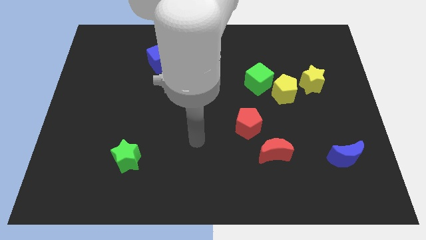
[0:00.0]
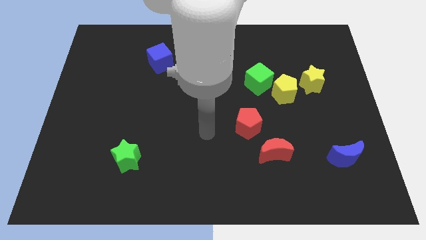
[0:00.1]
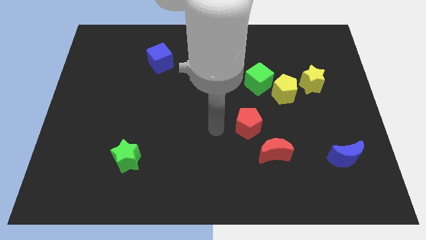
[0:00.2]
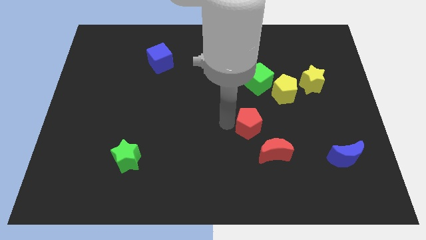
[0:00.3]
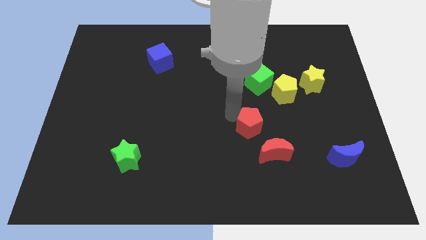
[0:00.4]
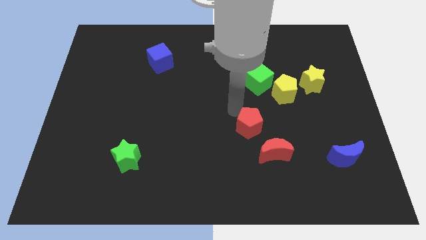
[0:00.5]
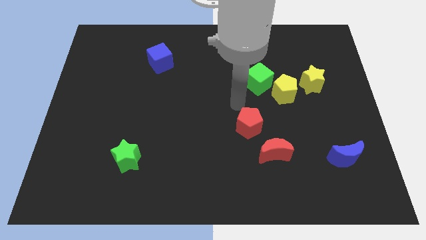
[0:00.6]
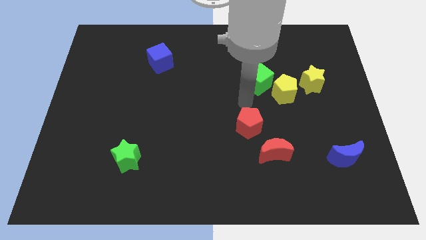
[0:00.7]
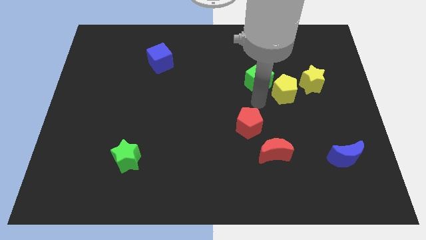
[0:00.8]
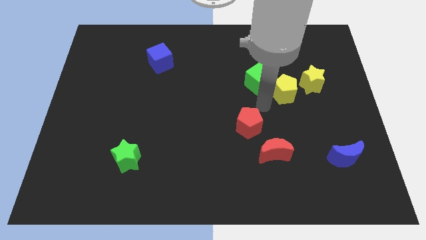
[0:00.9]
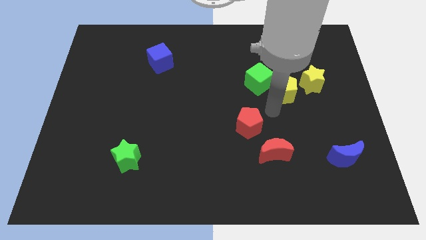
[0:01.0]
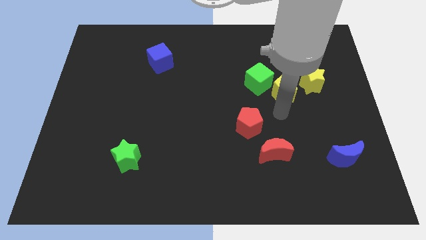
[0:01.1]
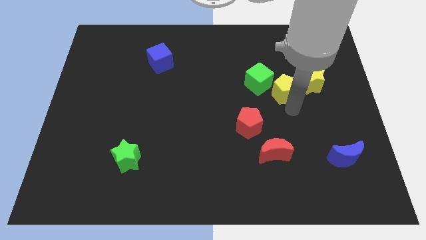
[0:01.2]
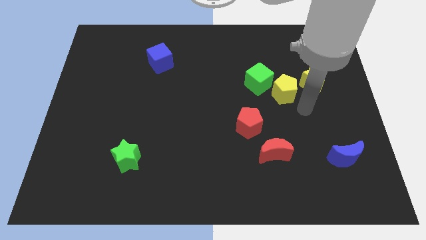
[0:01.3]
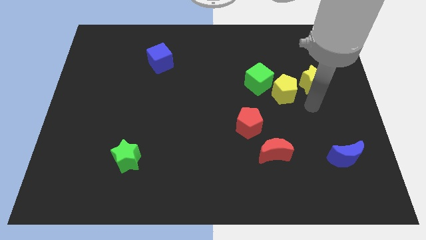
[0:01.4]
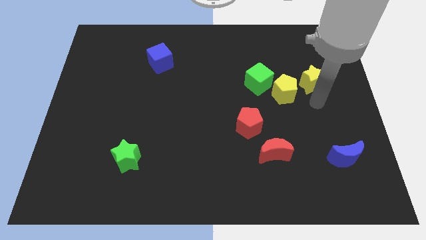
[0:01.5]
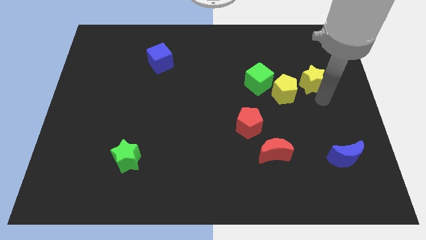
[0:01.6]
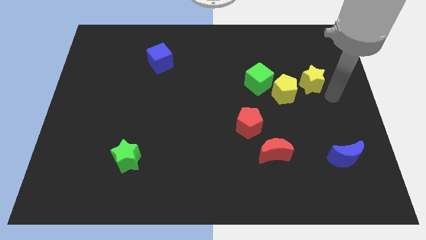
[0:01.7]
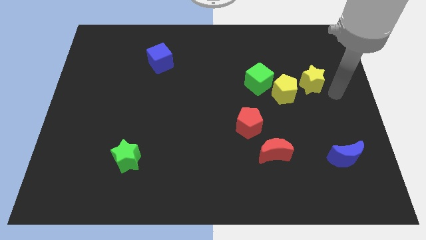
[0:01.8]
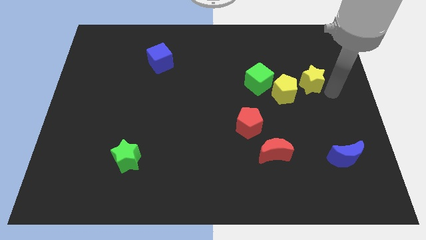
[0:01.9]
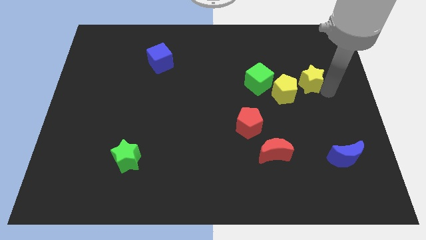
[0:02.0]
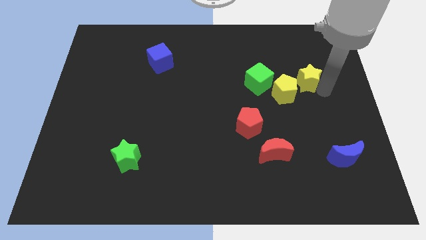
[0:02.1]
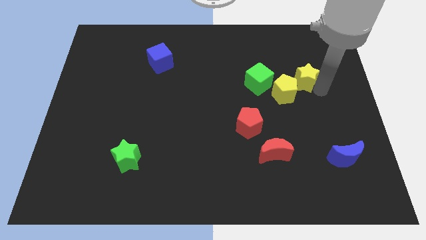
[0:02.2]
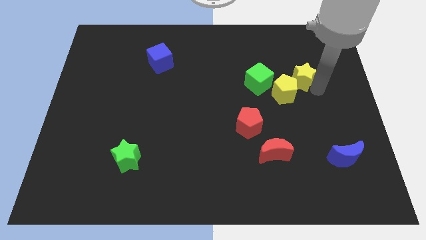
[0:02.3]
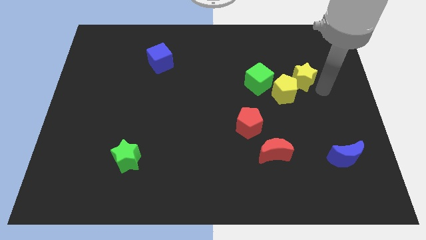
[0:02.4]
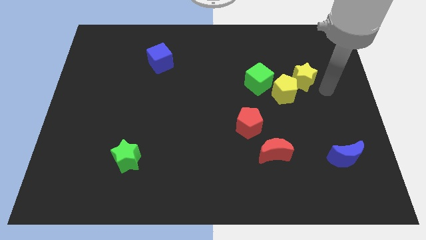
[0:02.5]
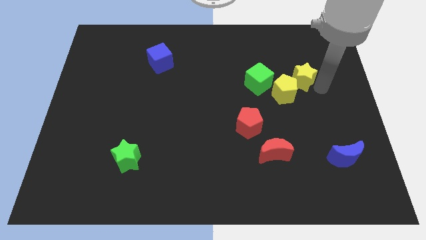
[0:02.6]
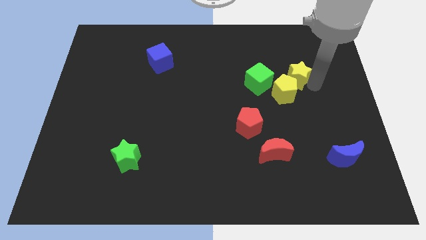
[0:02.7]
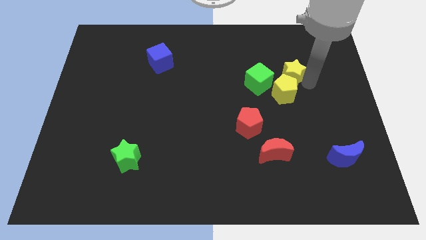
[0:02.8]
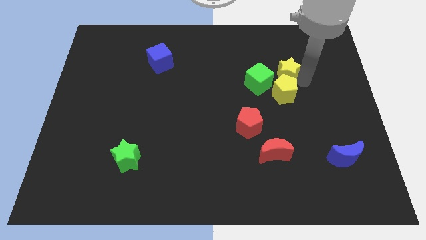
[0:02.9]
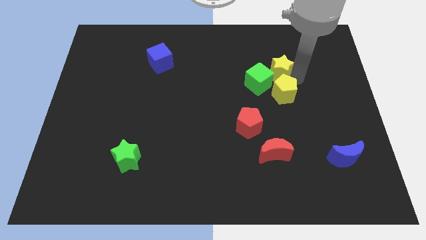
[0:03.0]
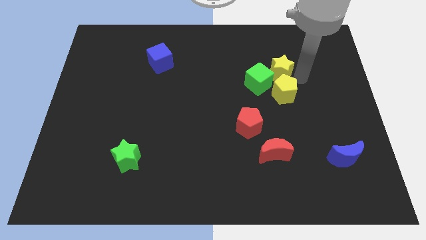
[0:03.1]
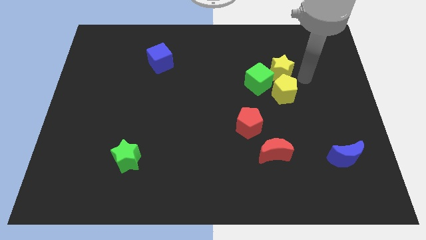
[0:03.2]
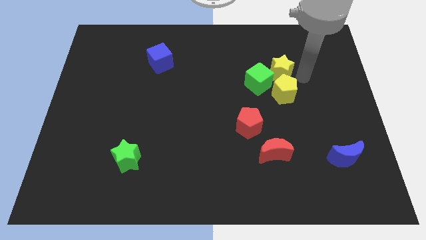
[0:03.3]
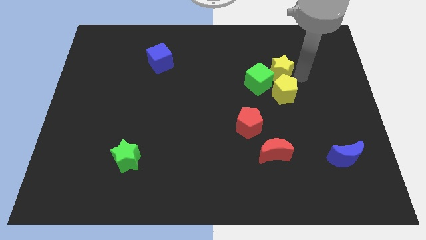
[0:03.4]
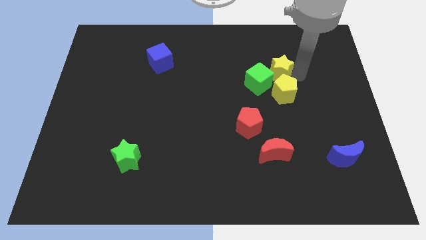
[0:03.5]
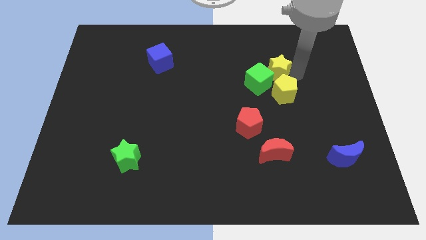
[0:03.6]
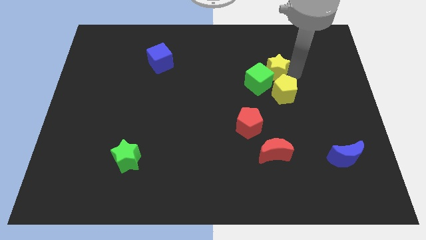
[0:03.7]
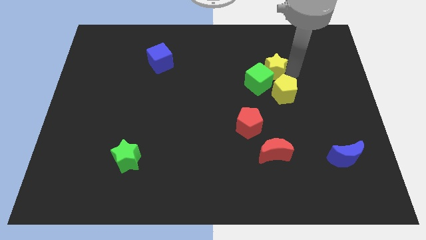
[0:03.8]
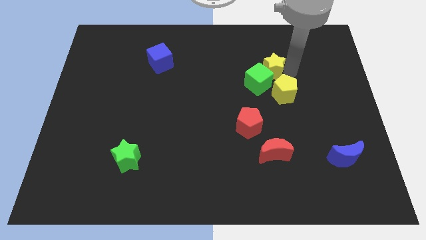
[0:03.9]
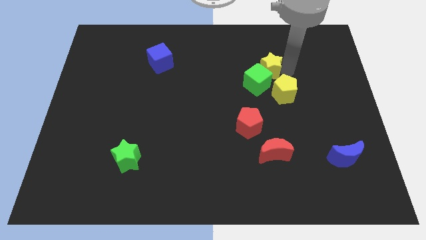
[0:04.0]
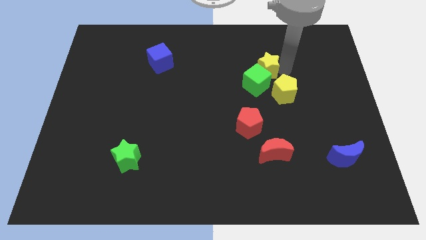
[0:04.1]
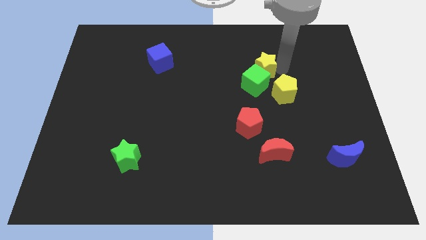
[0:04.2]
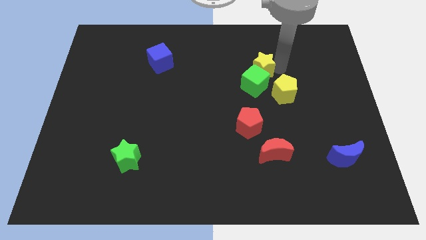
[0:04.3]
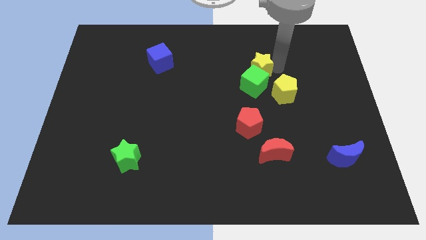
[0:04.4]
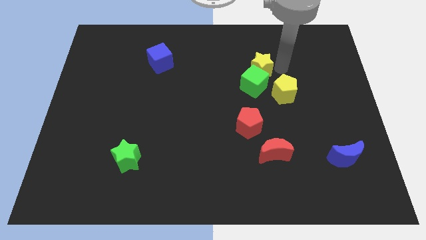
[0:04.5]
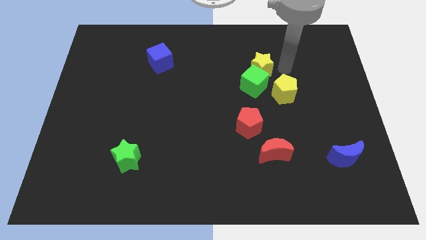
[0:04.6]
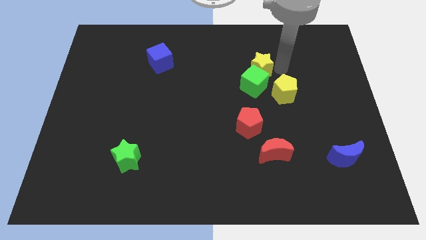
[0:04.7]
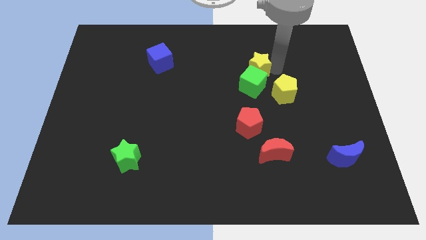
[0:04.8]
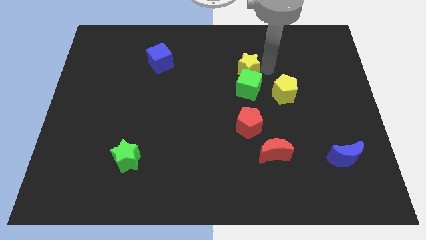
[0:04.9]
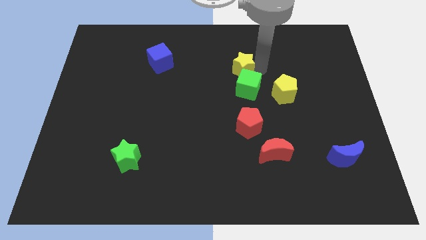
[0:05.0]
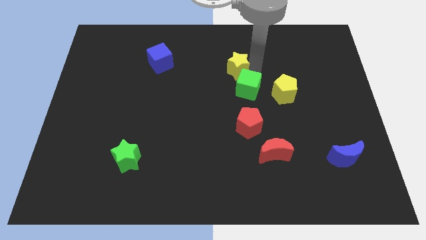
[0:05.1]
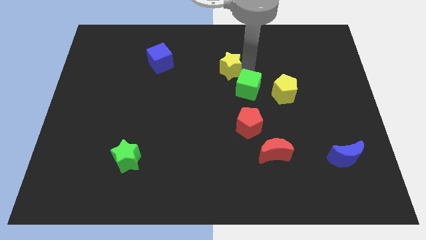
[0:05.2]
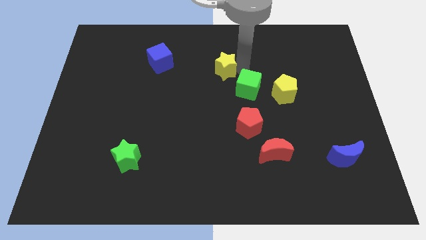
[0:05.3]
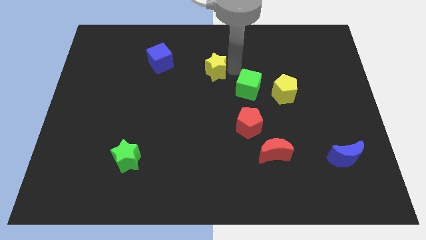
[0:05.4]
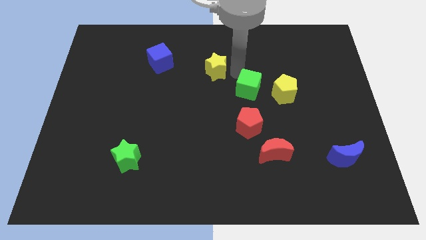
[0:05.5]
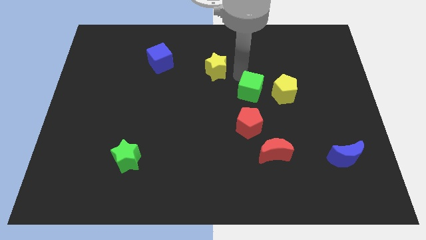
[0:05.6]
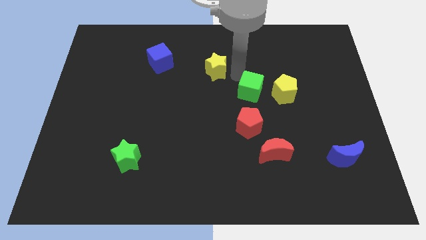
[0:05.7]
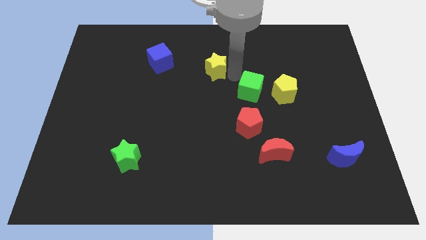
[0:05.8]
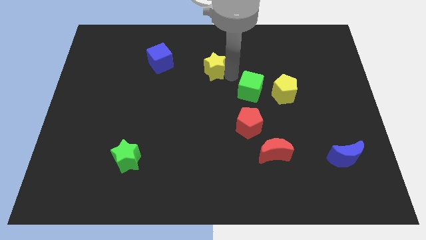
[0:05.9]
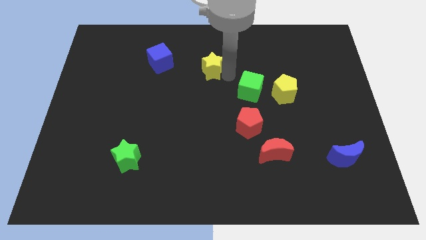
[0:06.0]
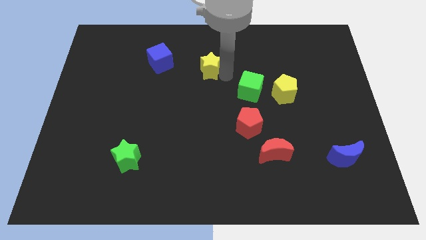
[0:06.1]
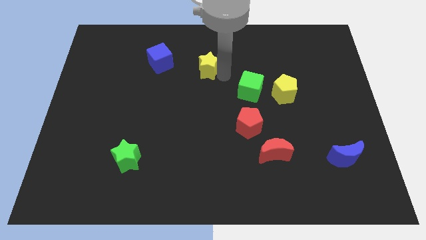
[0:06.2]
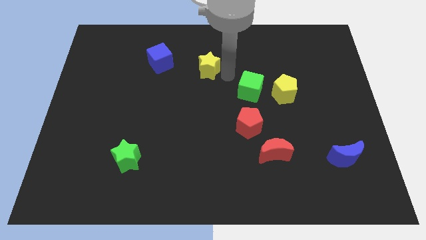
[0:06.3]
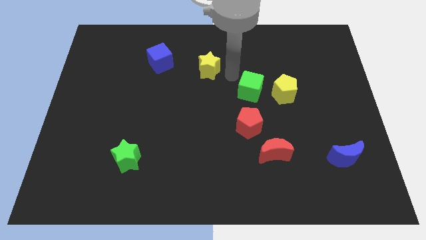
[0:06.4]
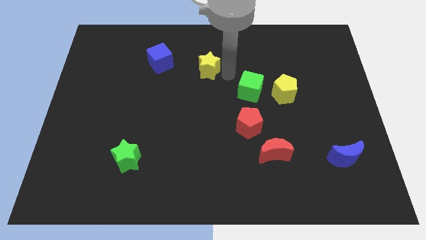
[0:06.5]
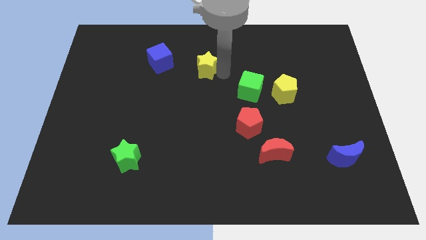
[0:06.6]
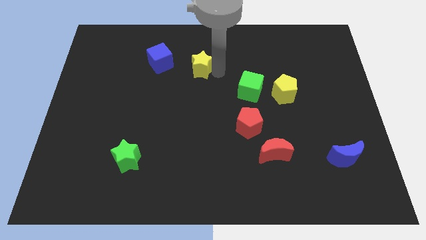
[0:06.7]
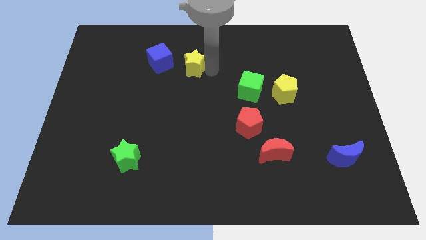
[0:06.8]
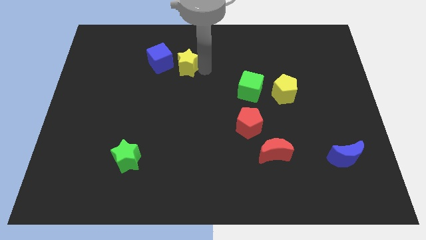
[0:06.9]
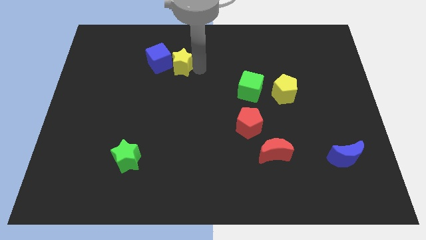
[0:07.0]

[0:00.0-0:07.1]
slide the yellow star to the blue cube
